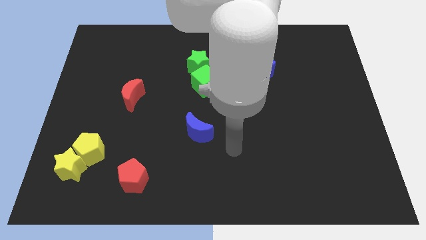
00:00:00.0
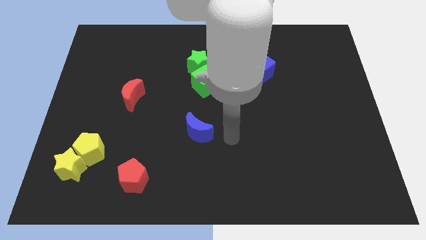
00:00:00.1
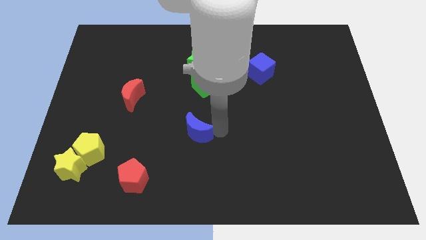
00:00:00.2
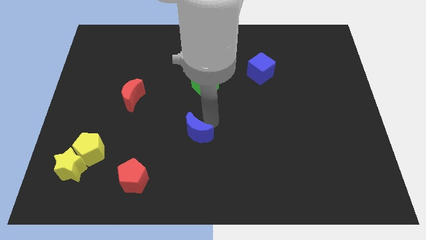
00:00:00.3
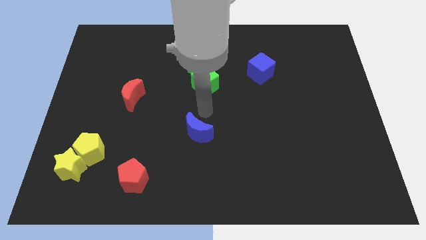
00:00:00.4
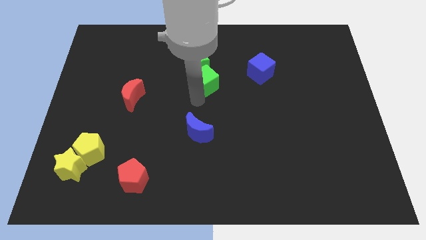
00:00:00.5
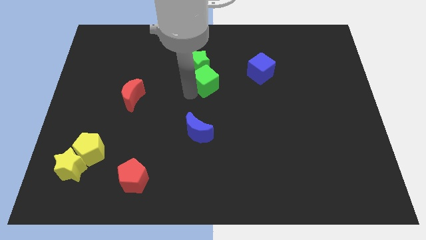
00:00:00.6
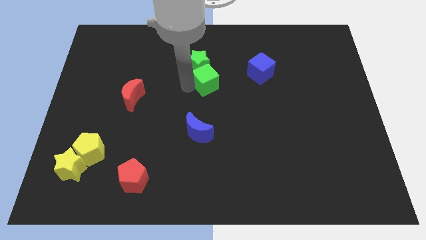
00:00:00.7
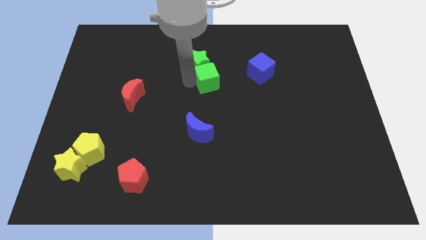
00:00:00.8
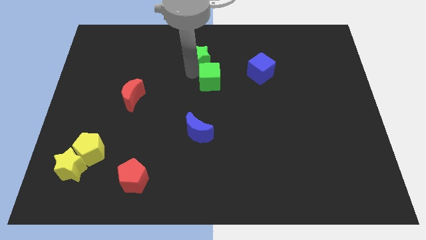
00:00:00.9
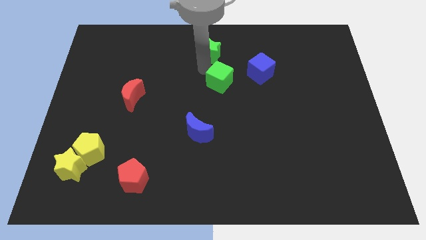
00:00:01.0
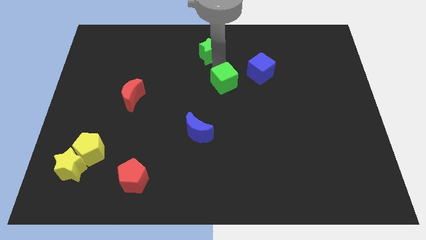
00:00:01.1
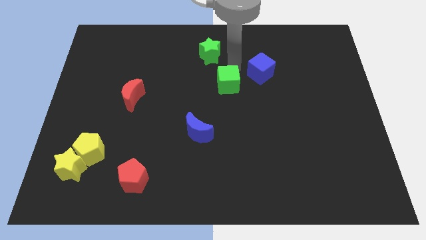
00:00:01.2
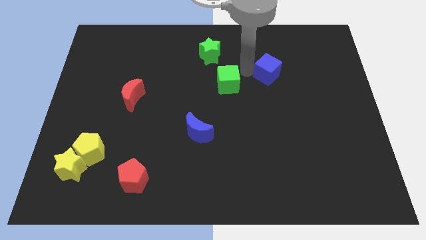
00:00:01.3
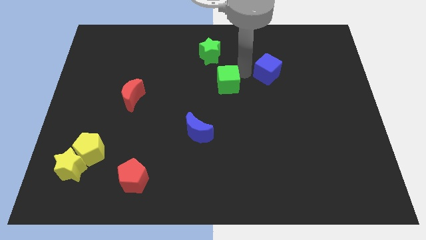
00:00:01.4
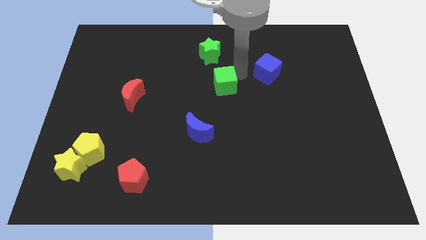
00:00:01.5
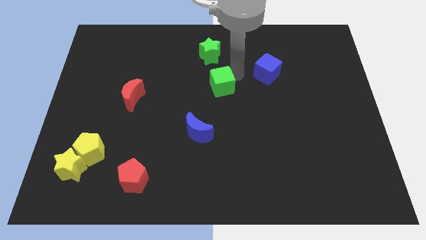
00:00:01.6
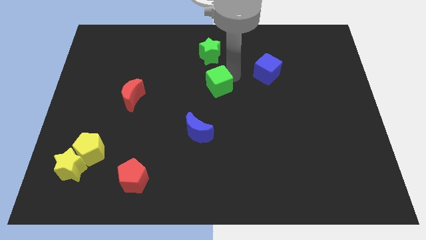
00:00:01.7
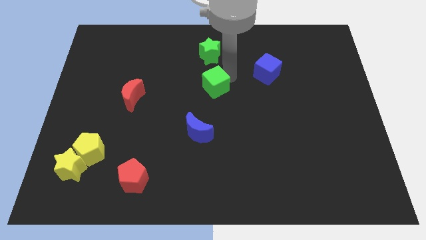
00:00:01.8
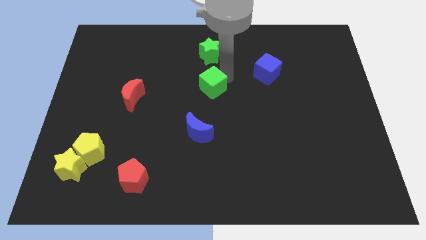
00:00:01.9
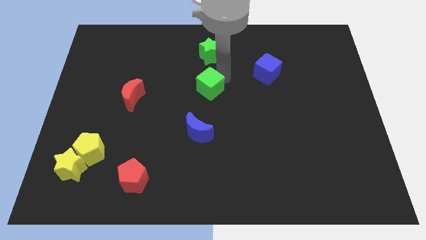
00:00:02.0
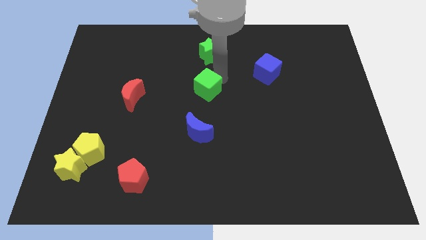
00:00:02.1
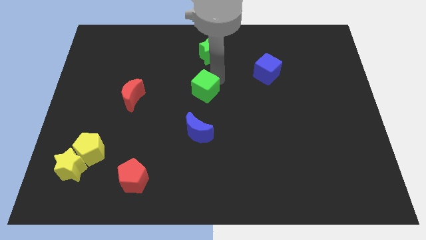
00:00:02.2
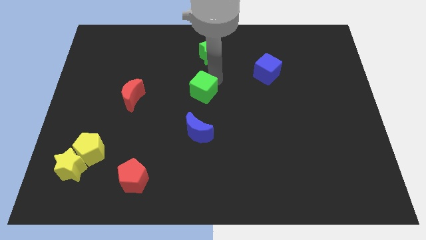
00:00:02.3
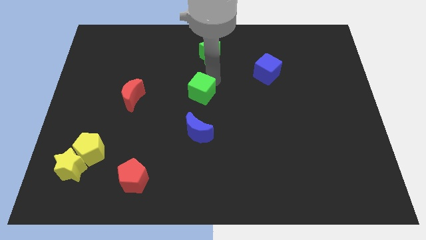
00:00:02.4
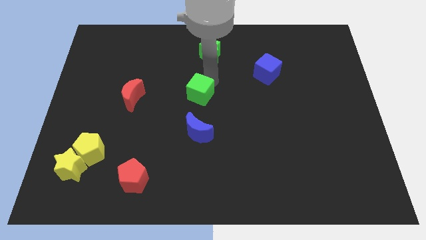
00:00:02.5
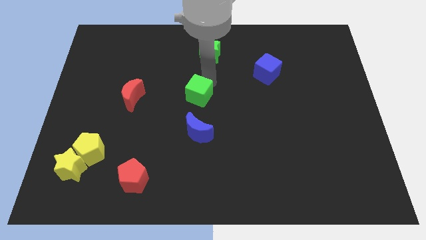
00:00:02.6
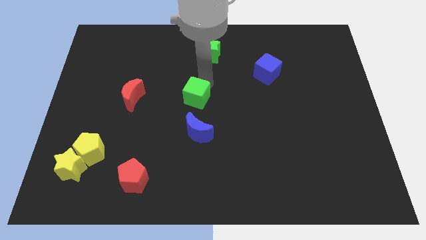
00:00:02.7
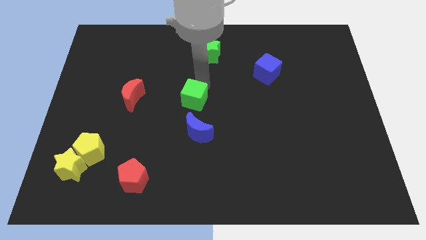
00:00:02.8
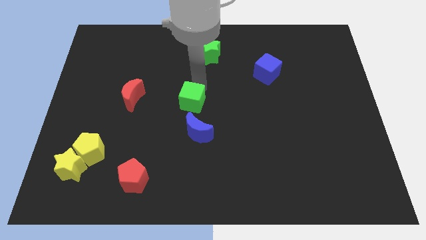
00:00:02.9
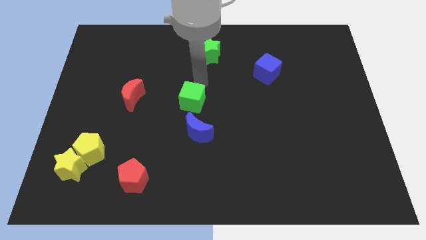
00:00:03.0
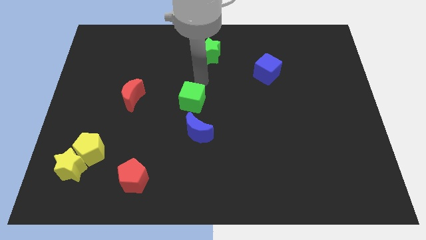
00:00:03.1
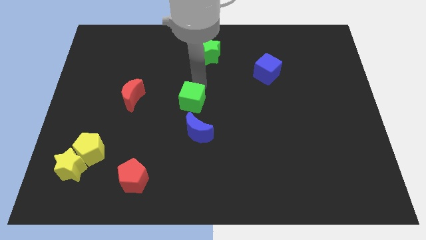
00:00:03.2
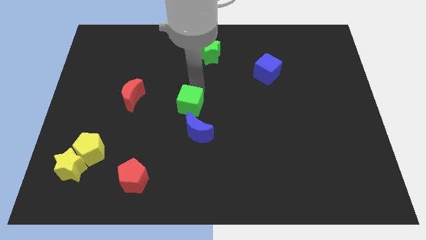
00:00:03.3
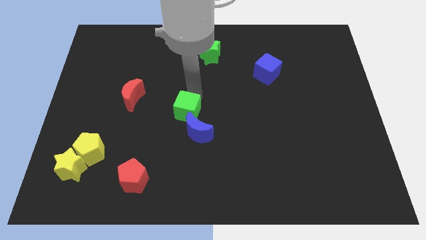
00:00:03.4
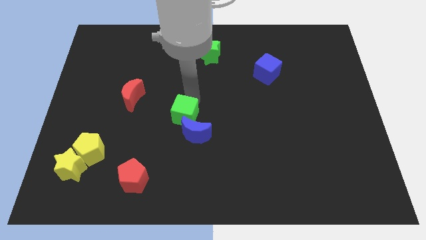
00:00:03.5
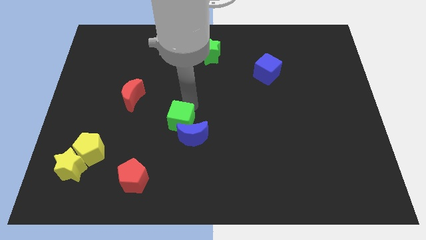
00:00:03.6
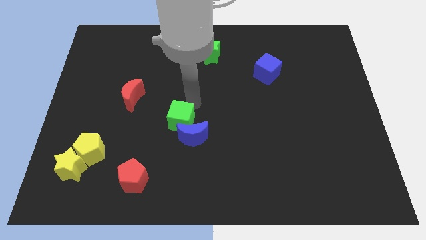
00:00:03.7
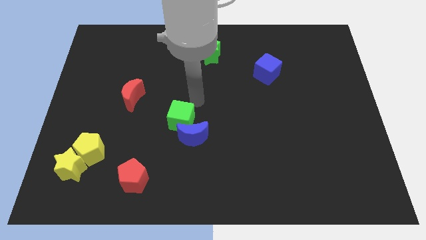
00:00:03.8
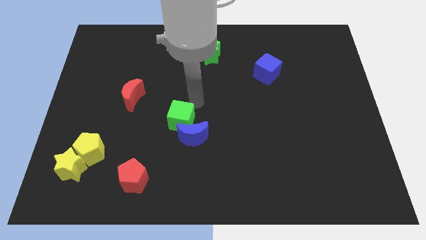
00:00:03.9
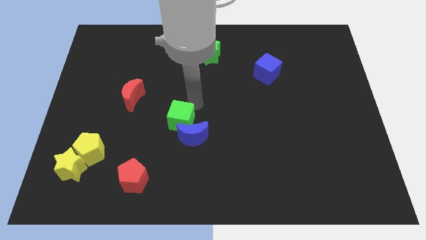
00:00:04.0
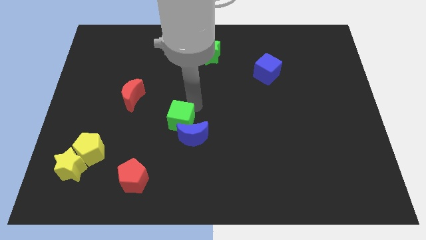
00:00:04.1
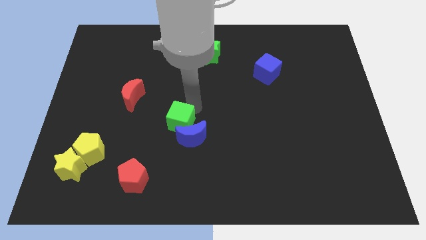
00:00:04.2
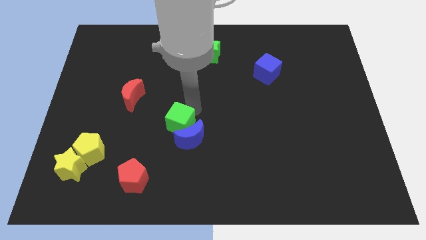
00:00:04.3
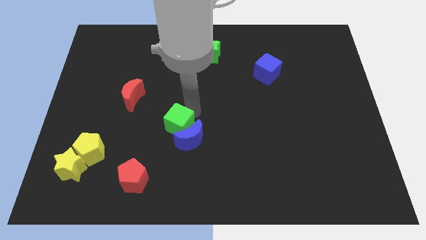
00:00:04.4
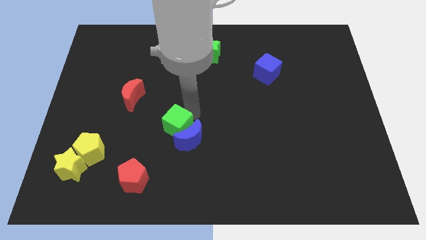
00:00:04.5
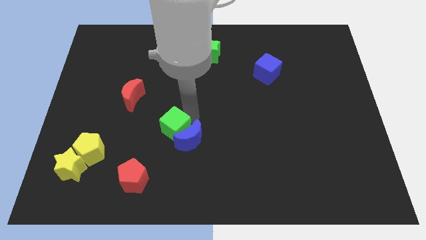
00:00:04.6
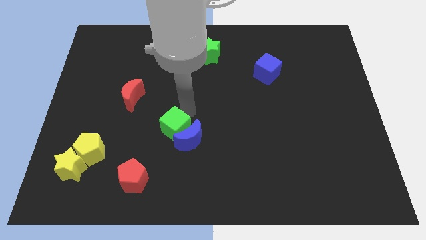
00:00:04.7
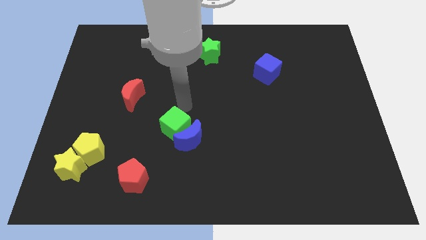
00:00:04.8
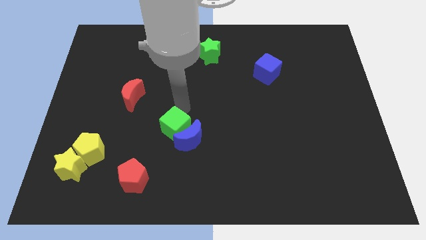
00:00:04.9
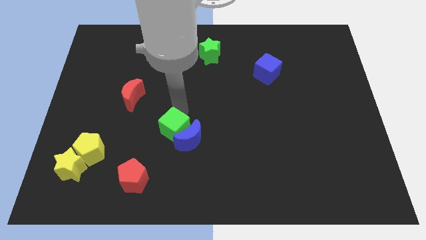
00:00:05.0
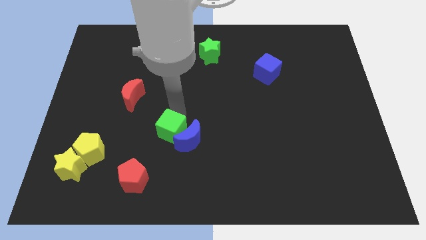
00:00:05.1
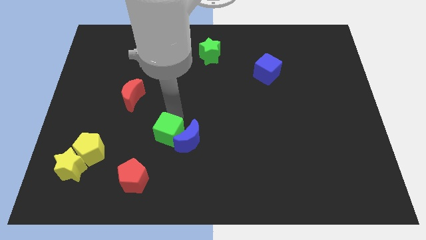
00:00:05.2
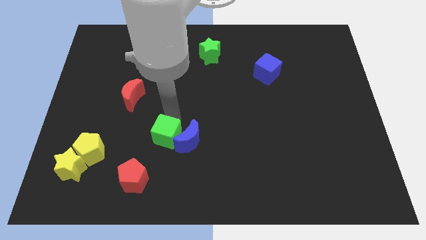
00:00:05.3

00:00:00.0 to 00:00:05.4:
push the green cube diagonally down and to the left of the blue moon

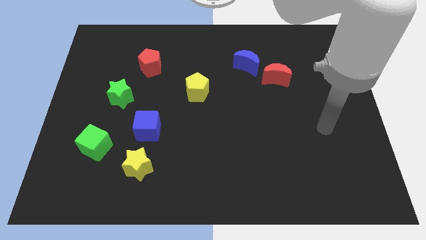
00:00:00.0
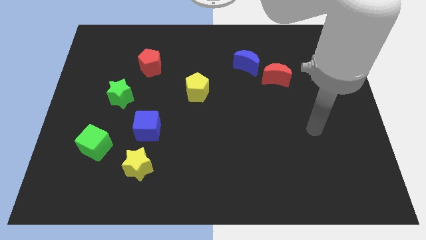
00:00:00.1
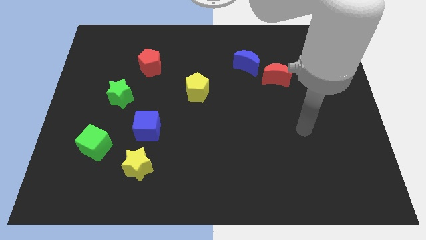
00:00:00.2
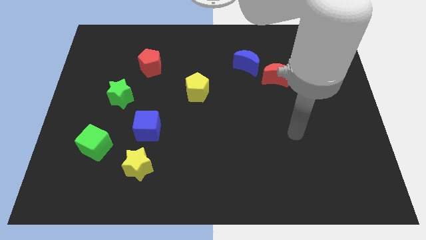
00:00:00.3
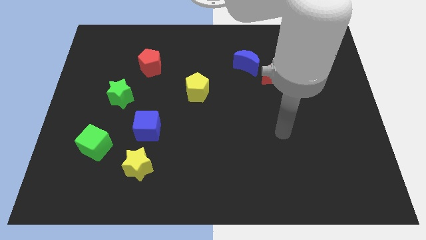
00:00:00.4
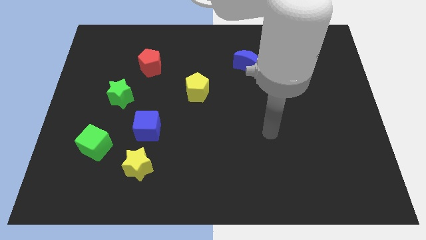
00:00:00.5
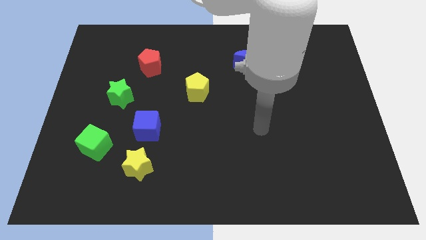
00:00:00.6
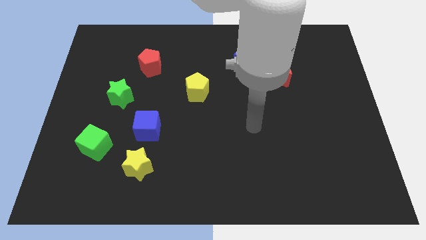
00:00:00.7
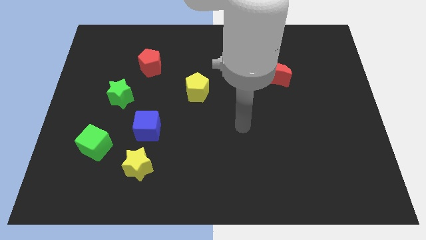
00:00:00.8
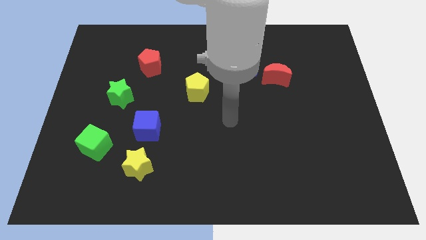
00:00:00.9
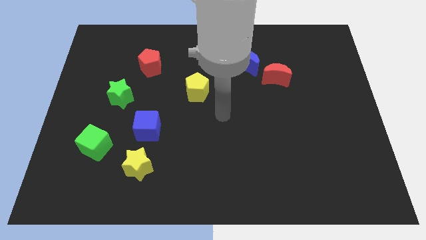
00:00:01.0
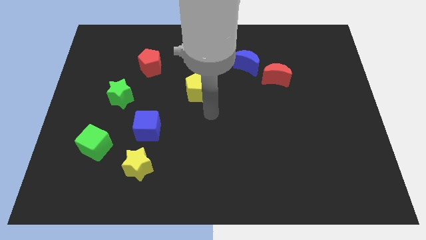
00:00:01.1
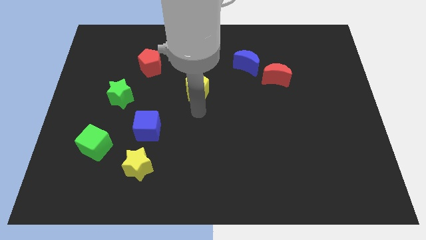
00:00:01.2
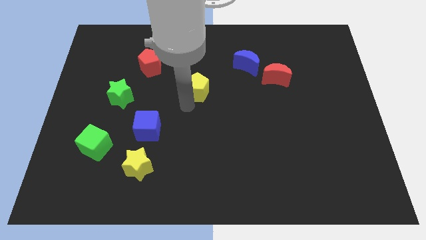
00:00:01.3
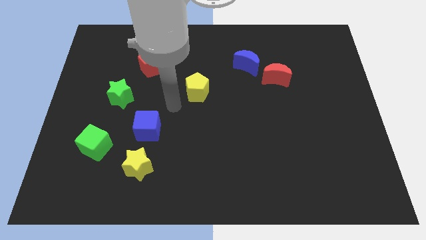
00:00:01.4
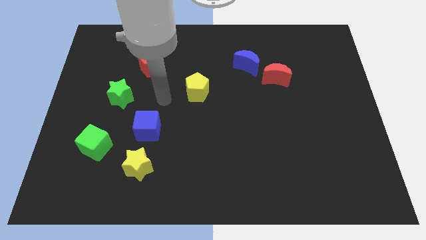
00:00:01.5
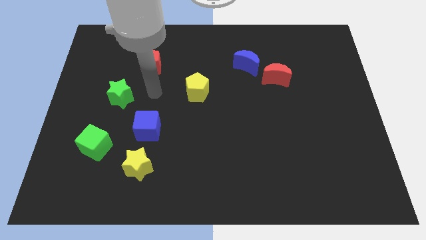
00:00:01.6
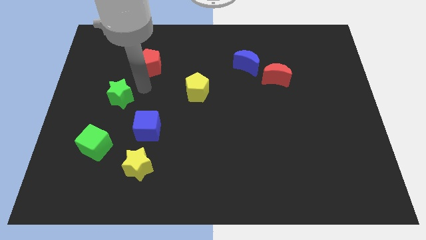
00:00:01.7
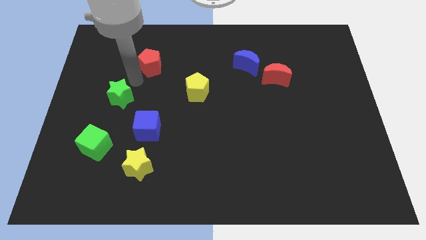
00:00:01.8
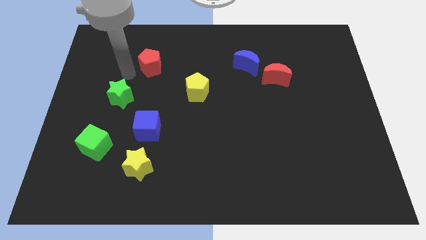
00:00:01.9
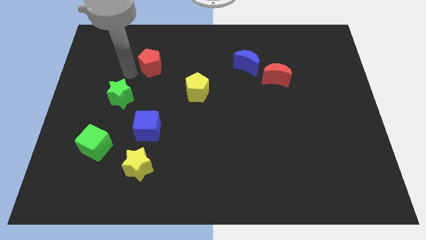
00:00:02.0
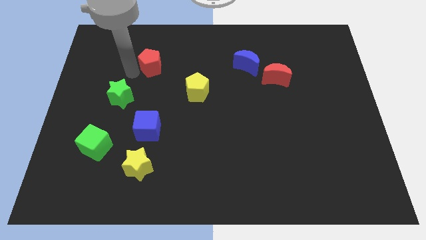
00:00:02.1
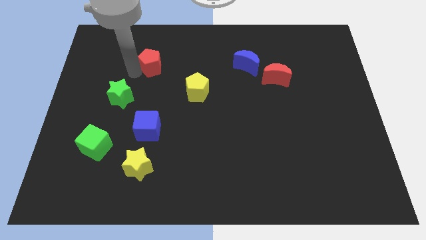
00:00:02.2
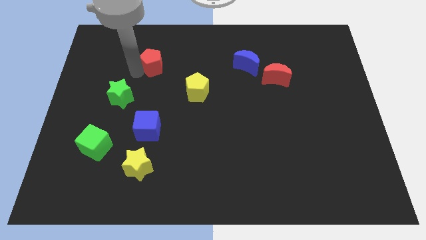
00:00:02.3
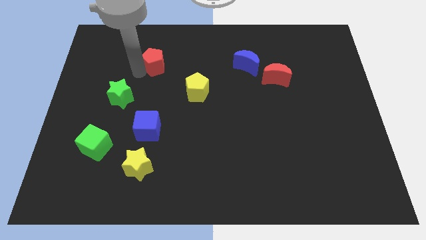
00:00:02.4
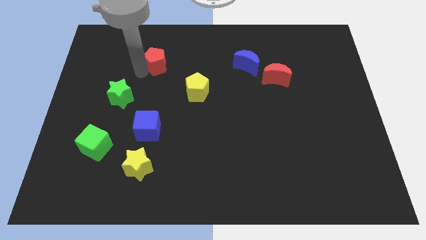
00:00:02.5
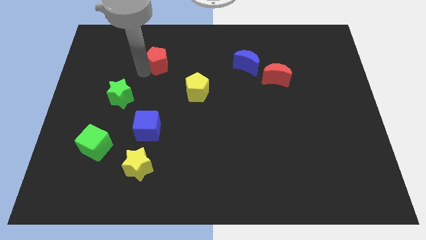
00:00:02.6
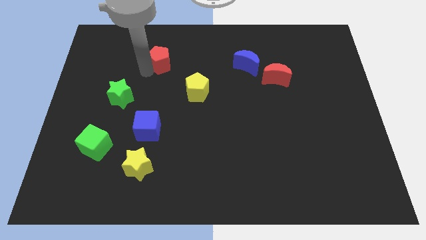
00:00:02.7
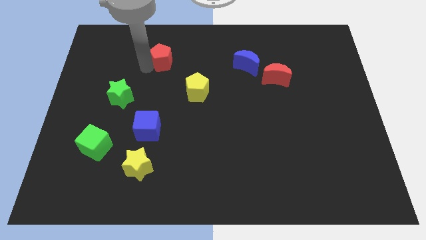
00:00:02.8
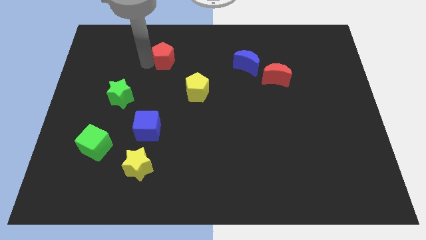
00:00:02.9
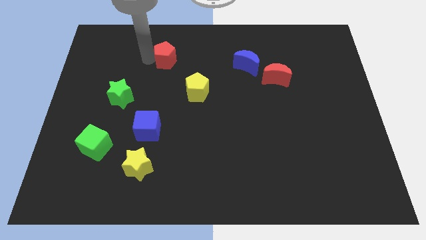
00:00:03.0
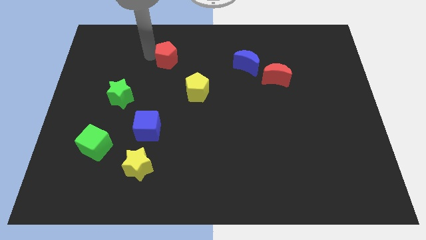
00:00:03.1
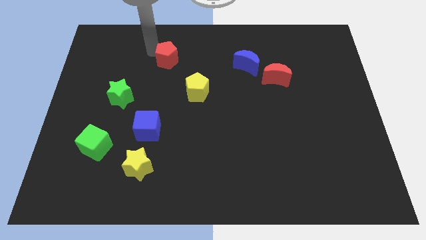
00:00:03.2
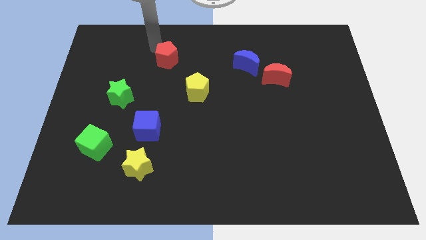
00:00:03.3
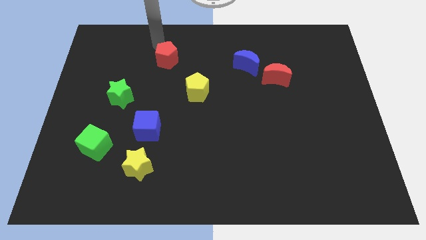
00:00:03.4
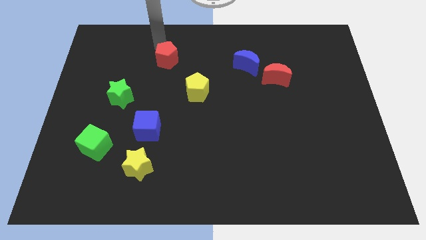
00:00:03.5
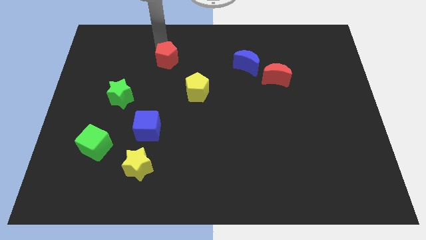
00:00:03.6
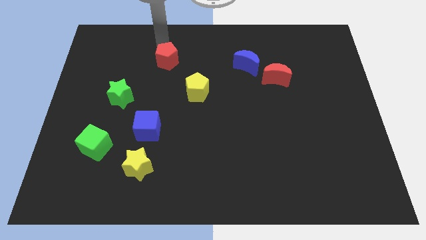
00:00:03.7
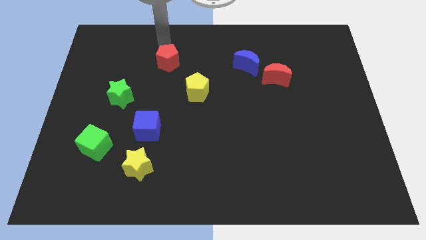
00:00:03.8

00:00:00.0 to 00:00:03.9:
move the red pentagon to the top left of the yellow pentagon
